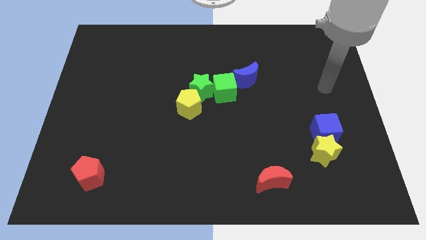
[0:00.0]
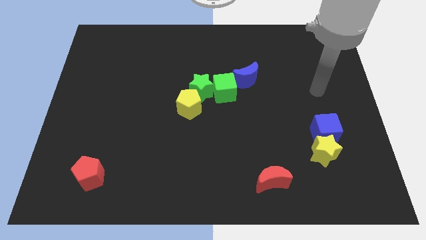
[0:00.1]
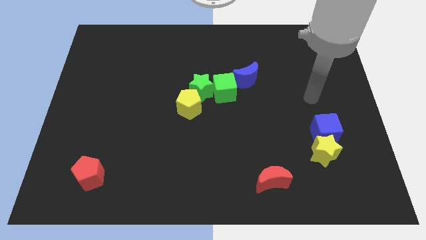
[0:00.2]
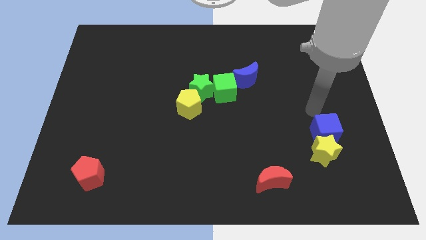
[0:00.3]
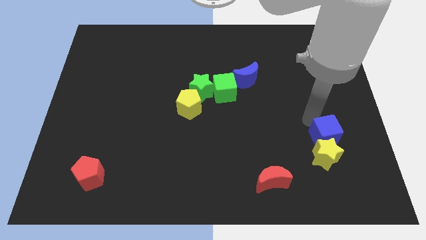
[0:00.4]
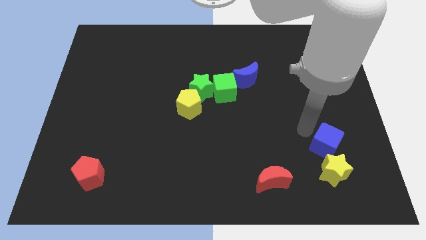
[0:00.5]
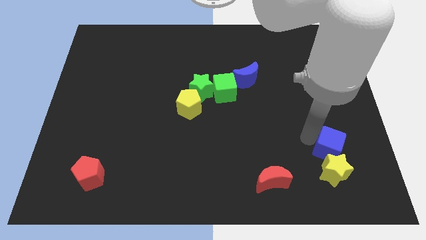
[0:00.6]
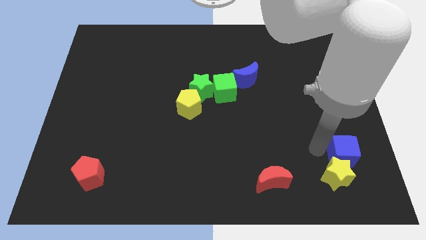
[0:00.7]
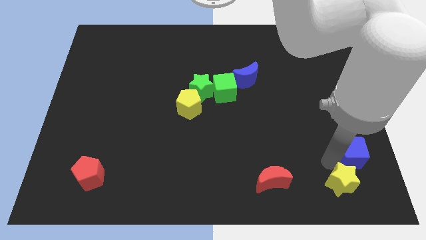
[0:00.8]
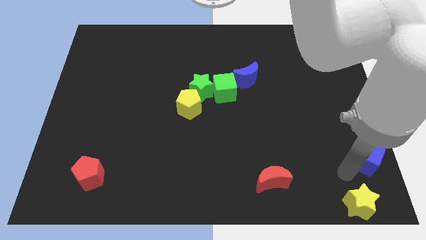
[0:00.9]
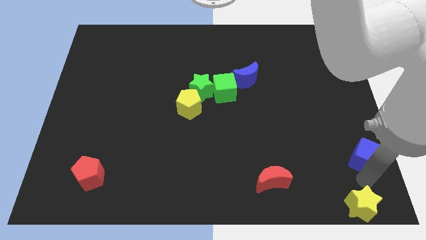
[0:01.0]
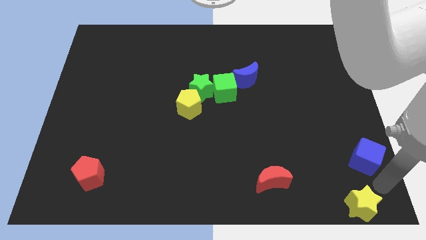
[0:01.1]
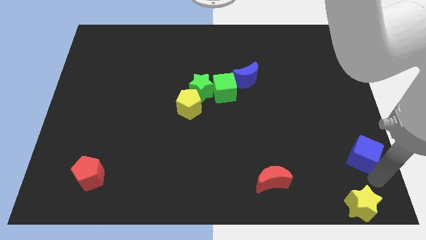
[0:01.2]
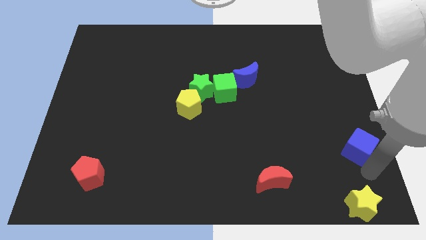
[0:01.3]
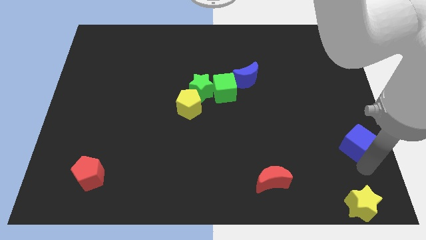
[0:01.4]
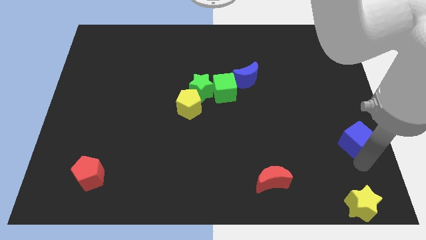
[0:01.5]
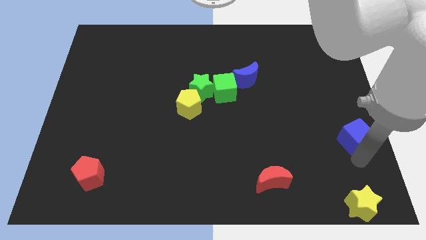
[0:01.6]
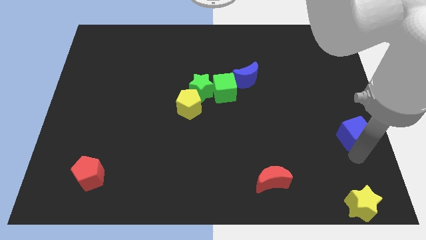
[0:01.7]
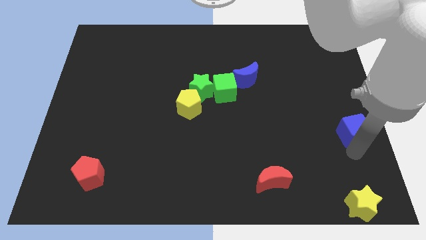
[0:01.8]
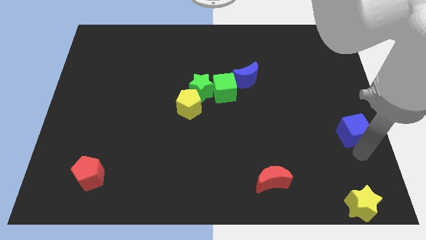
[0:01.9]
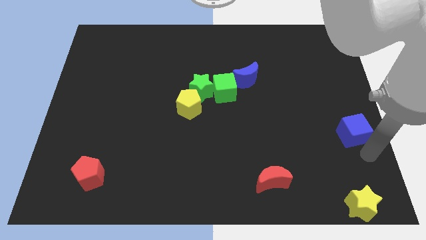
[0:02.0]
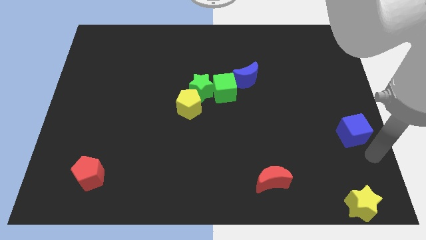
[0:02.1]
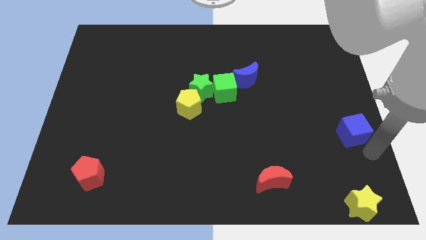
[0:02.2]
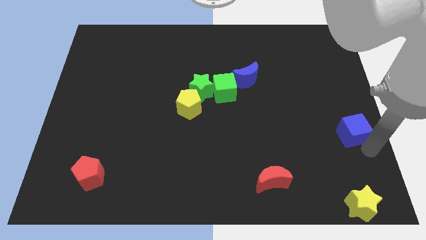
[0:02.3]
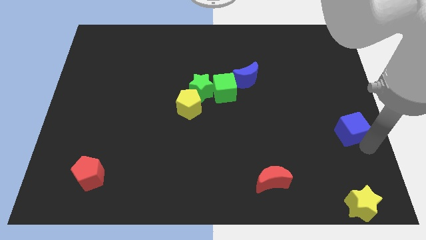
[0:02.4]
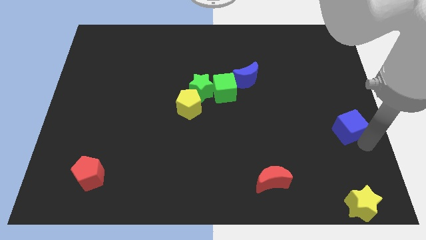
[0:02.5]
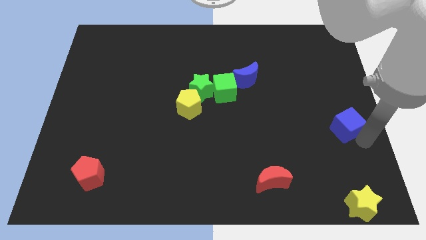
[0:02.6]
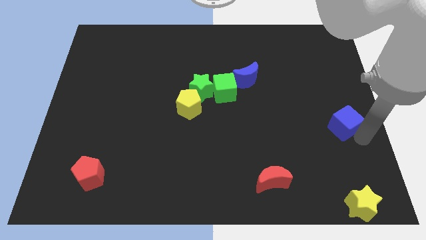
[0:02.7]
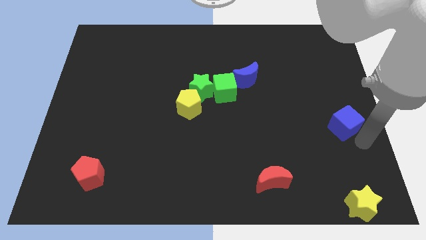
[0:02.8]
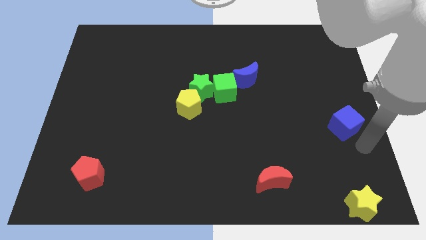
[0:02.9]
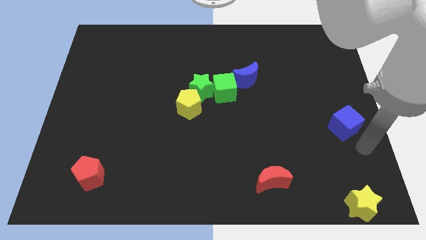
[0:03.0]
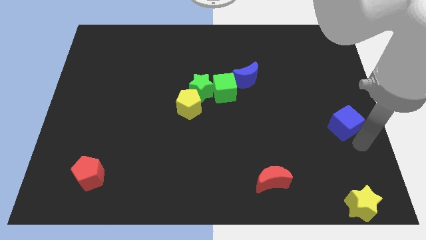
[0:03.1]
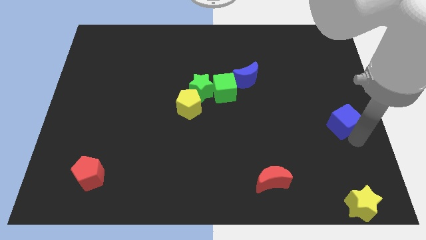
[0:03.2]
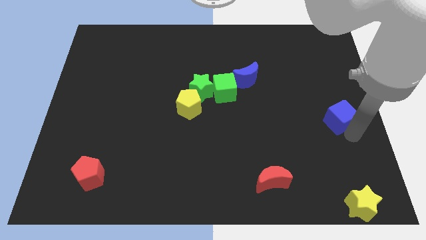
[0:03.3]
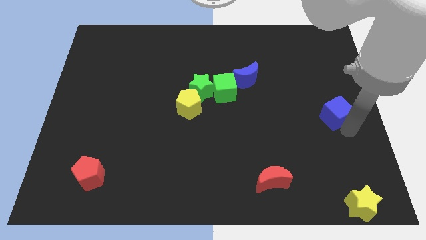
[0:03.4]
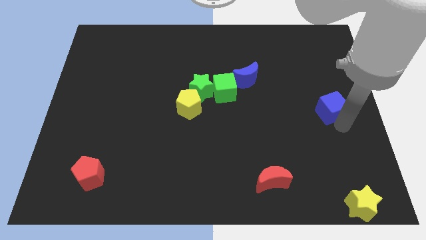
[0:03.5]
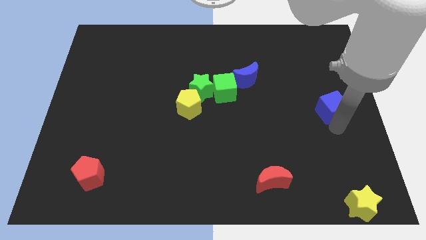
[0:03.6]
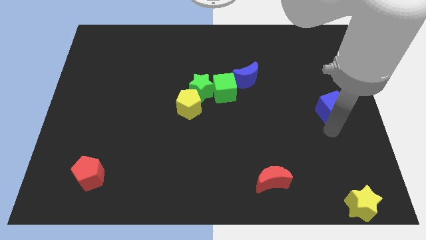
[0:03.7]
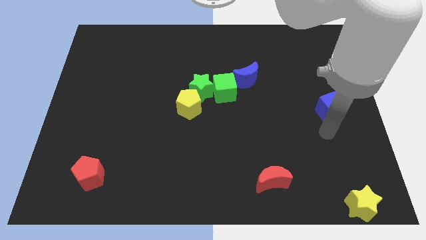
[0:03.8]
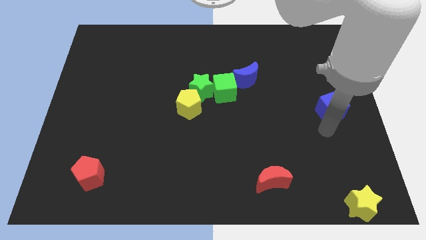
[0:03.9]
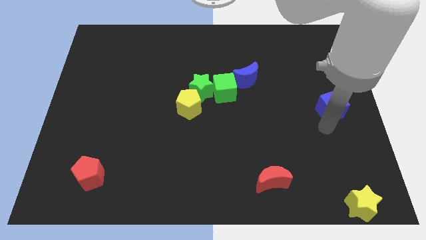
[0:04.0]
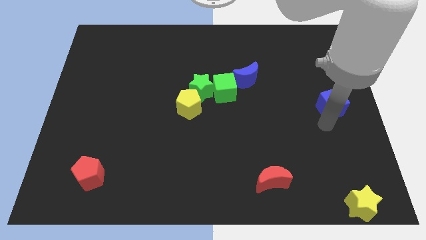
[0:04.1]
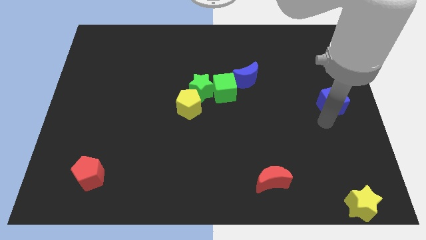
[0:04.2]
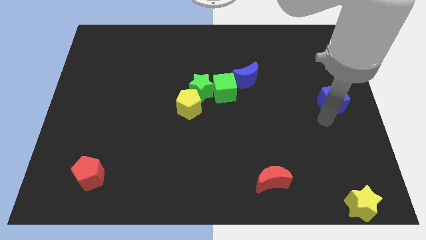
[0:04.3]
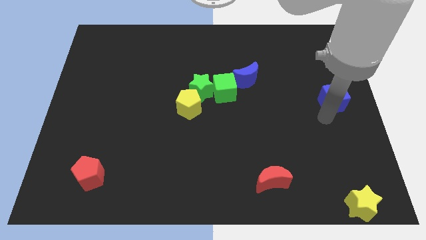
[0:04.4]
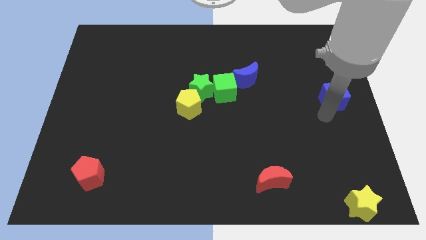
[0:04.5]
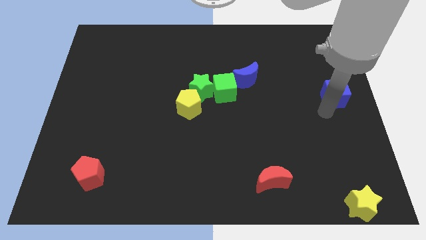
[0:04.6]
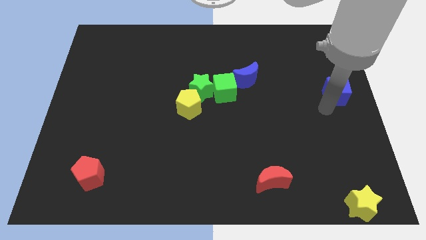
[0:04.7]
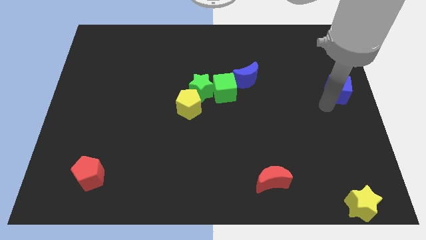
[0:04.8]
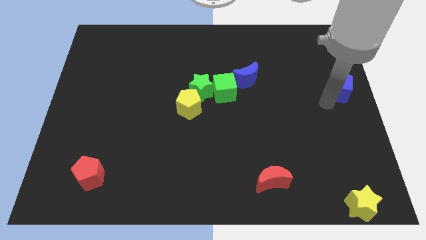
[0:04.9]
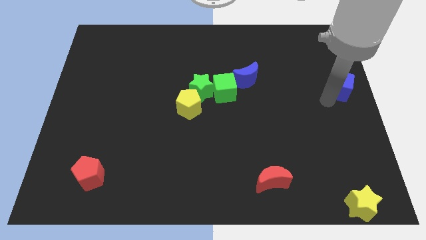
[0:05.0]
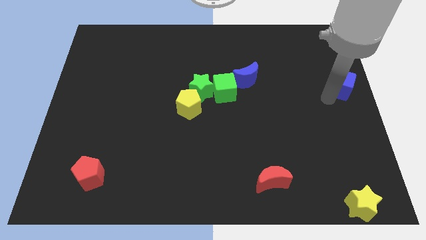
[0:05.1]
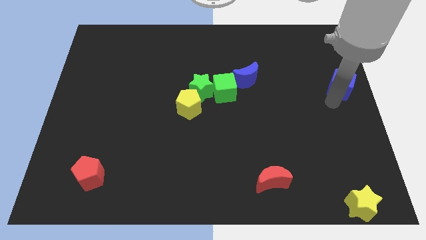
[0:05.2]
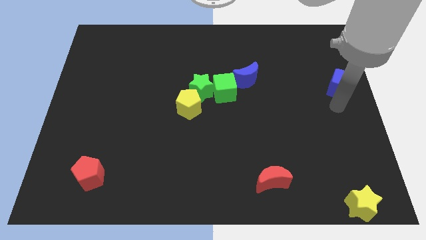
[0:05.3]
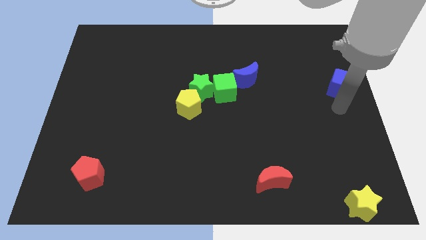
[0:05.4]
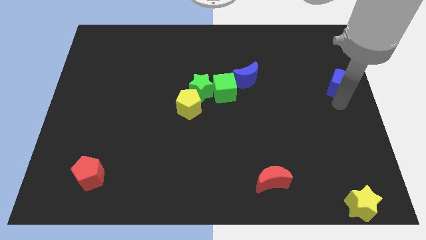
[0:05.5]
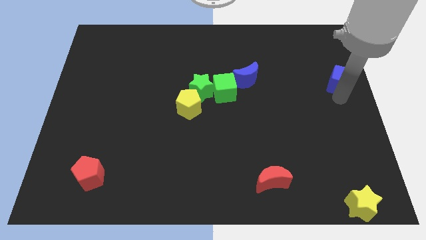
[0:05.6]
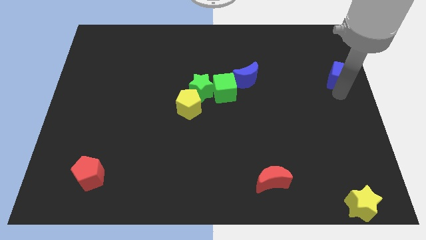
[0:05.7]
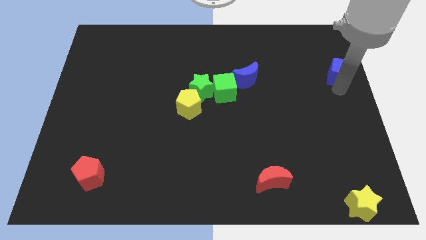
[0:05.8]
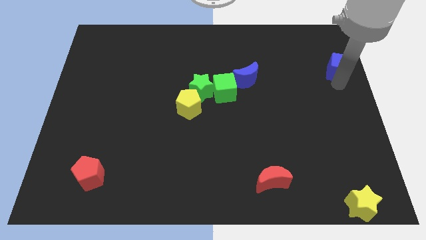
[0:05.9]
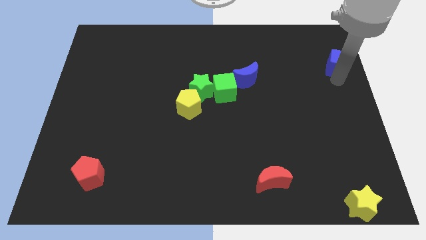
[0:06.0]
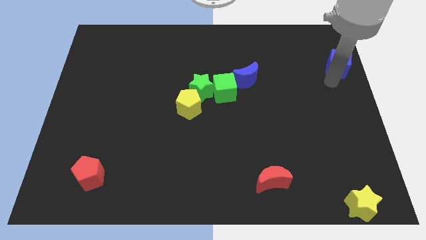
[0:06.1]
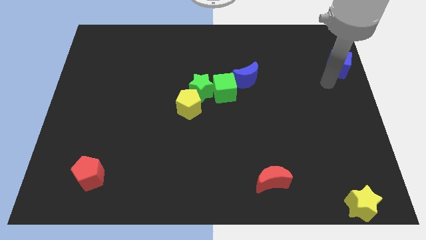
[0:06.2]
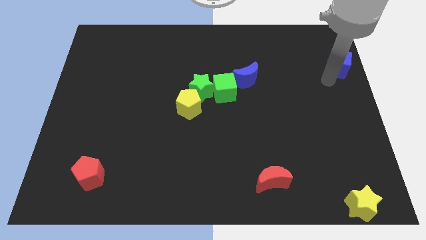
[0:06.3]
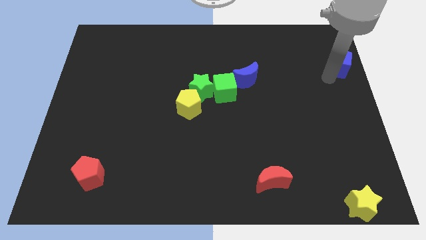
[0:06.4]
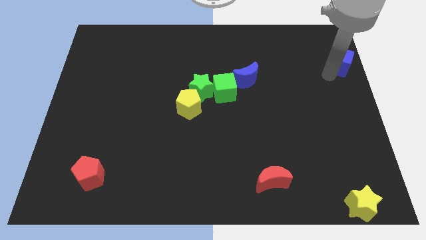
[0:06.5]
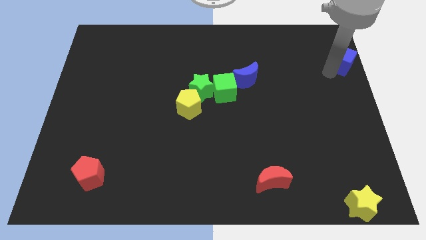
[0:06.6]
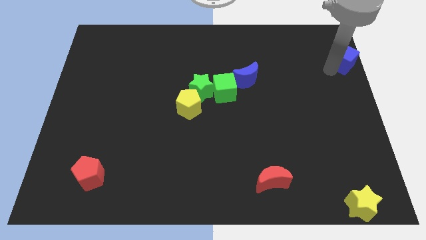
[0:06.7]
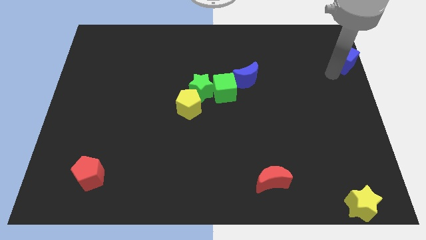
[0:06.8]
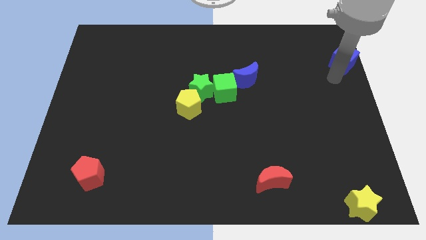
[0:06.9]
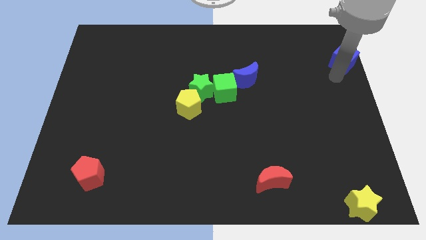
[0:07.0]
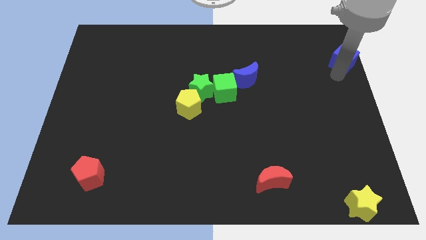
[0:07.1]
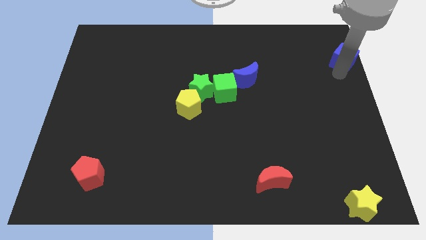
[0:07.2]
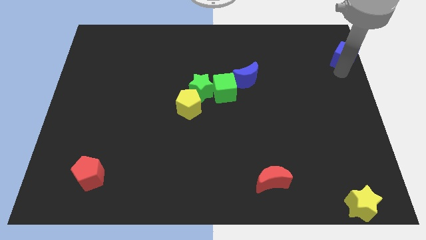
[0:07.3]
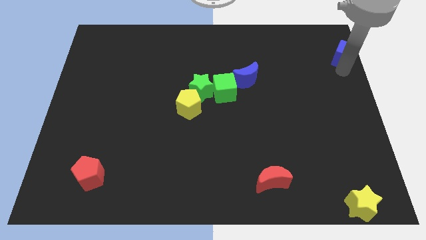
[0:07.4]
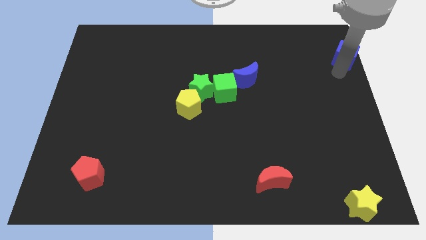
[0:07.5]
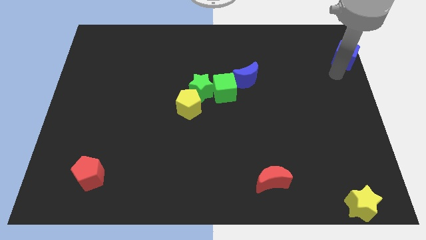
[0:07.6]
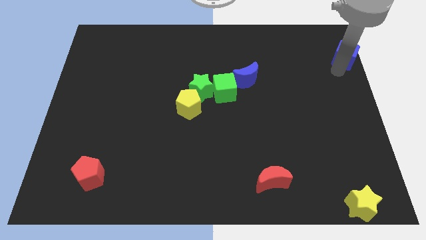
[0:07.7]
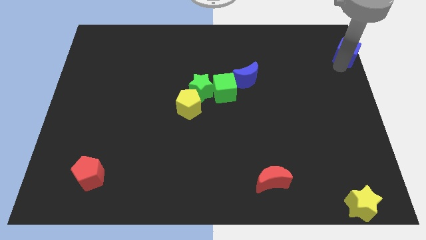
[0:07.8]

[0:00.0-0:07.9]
slide the blue cube to the top right
